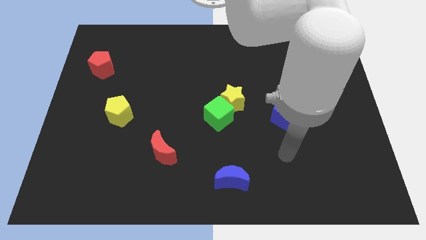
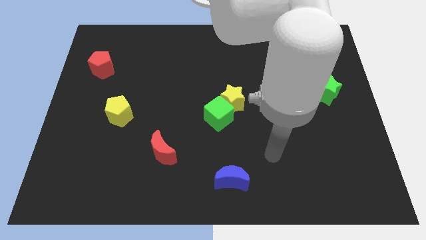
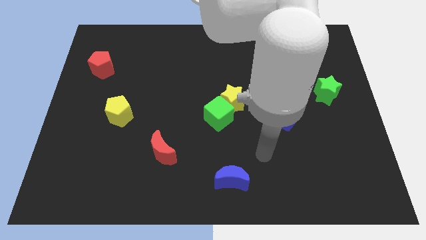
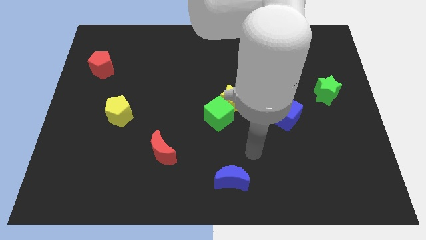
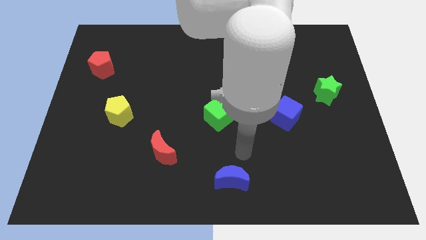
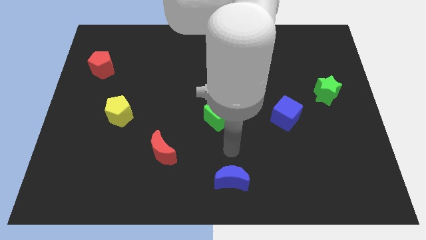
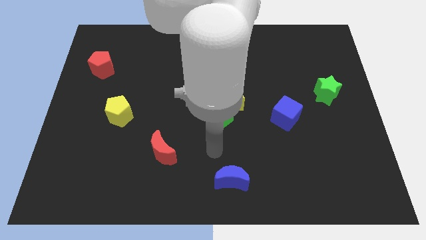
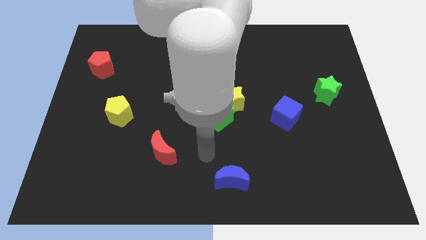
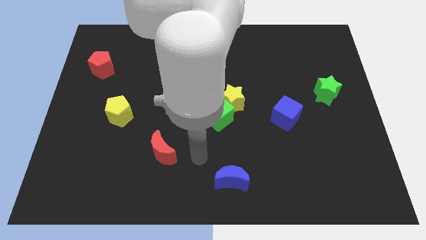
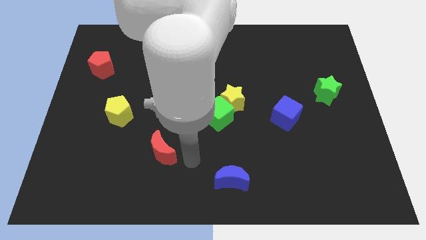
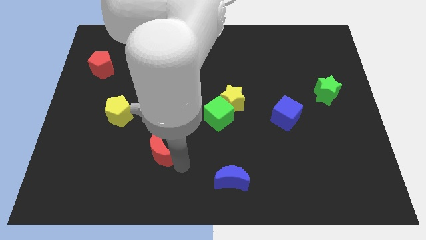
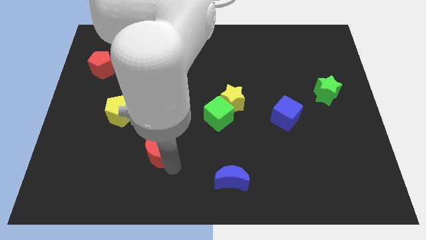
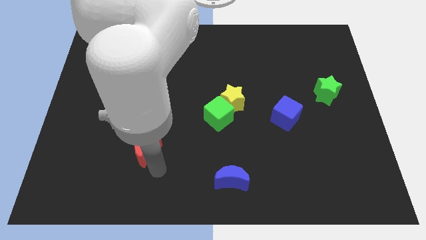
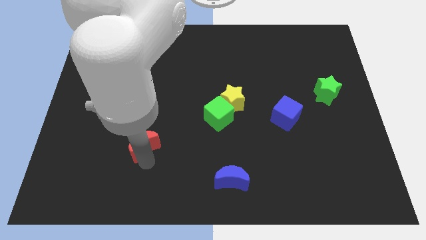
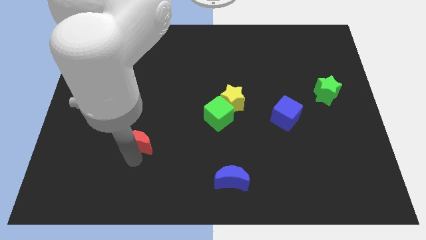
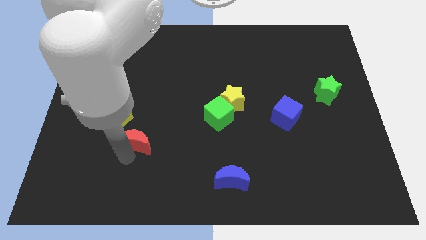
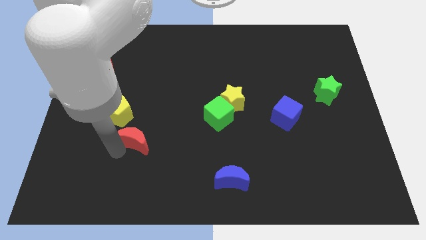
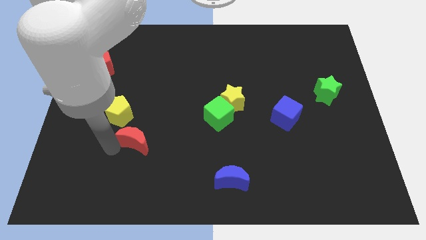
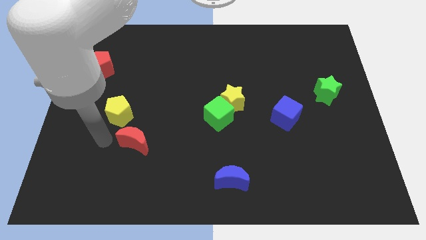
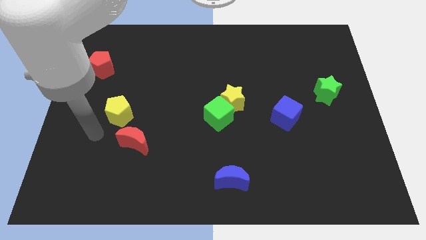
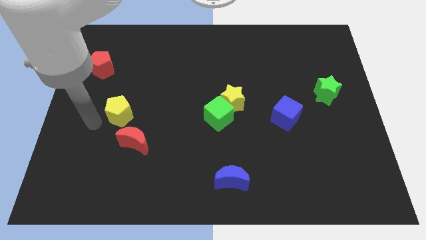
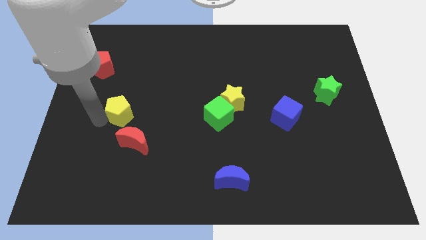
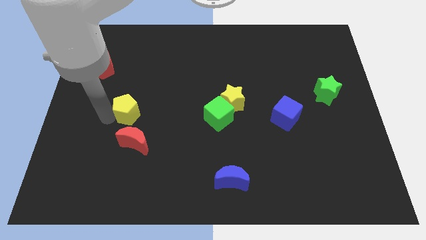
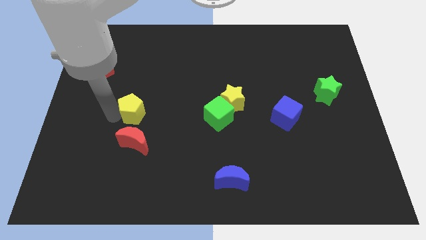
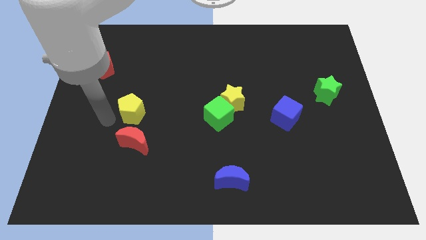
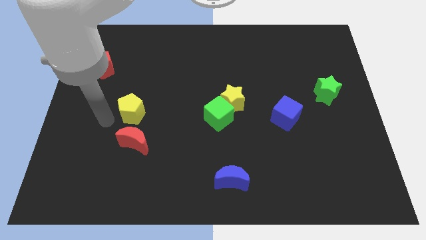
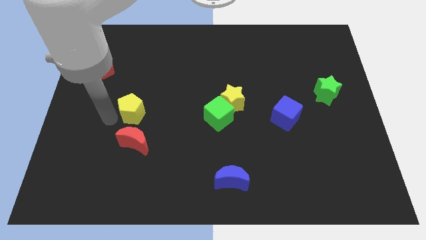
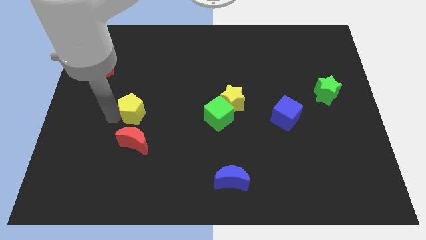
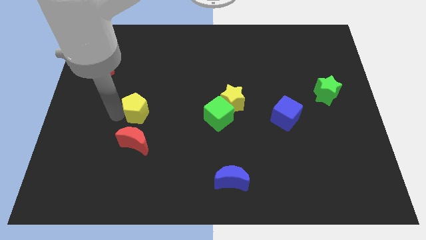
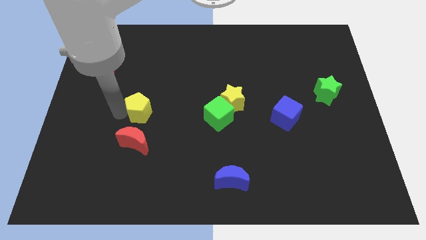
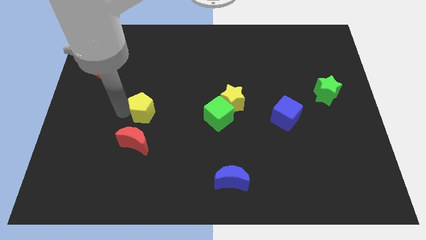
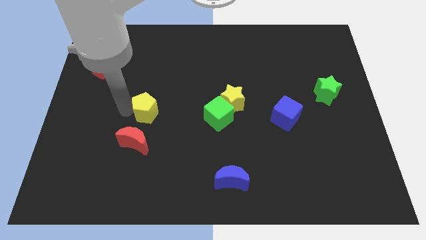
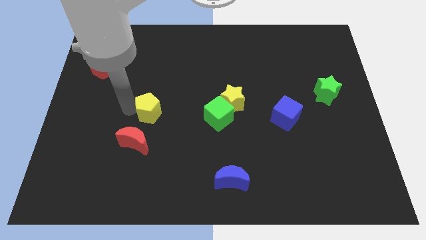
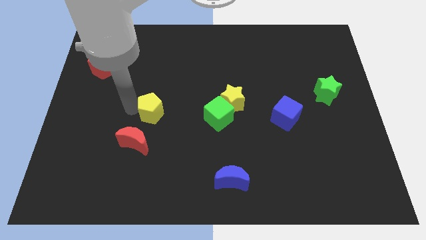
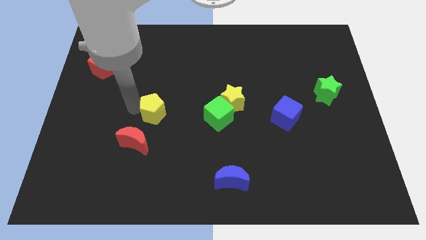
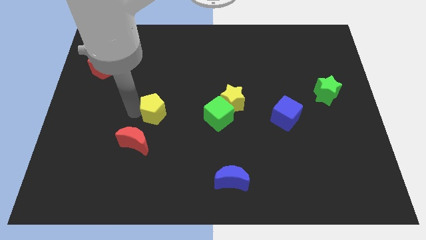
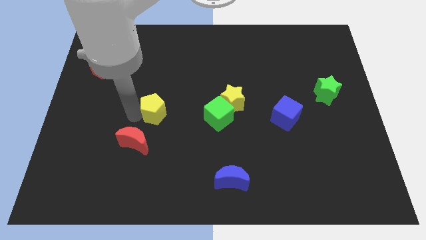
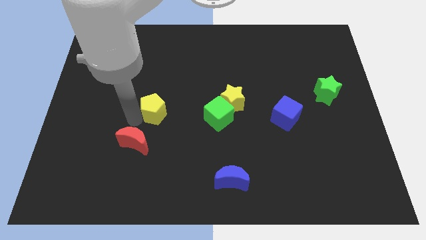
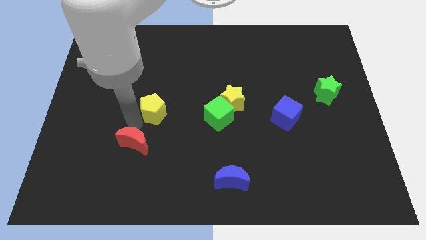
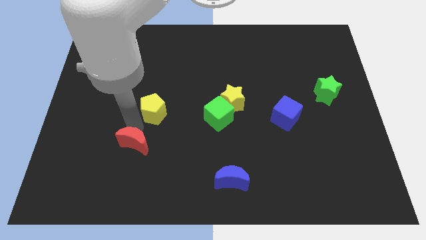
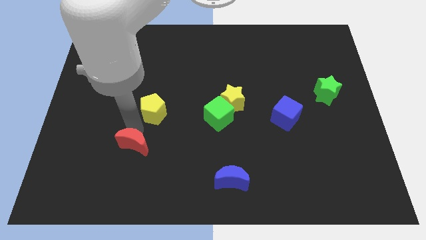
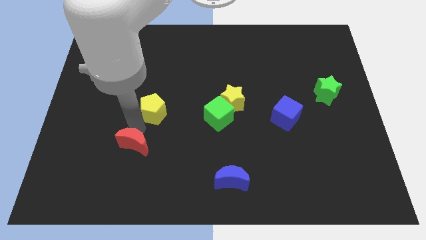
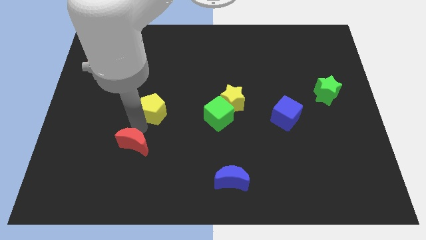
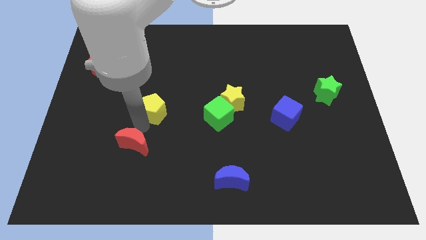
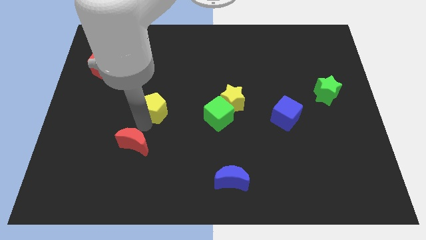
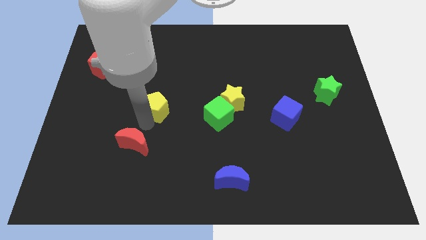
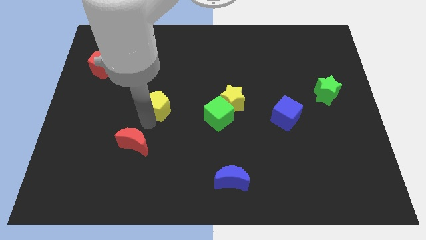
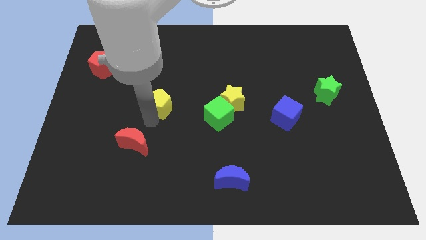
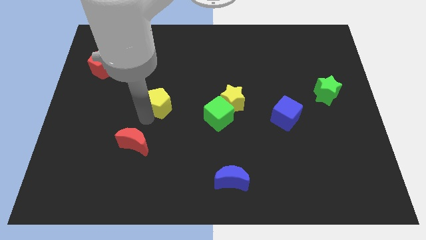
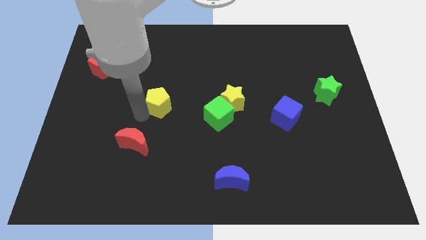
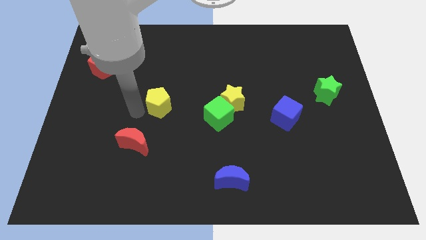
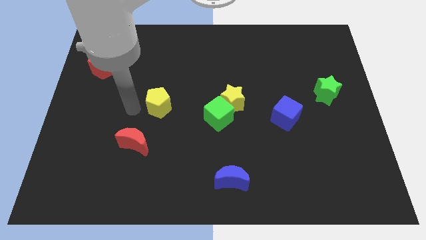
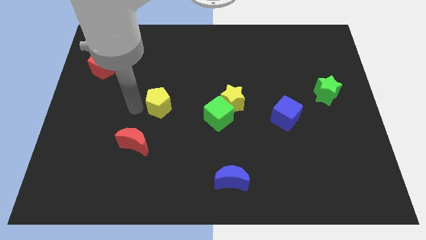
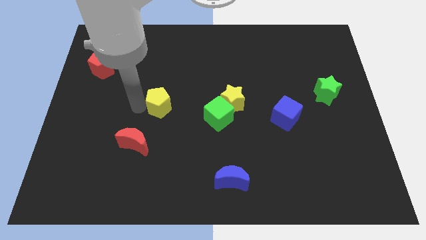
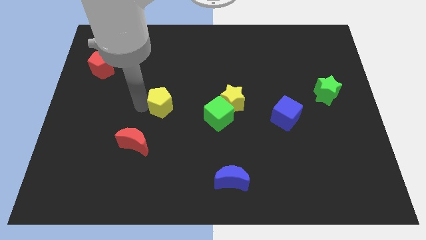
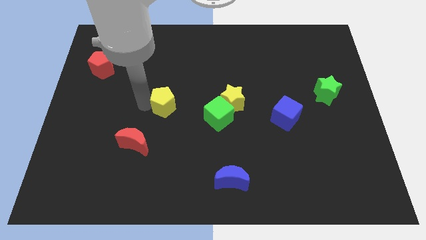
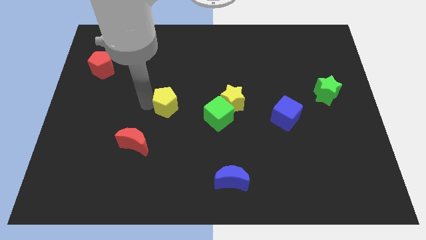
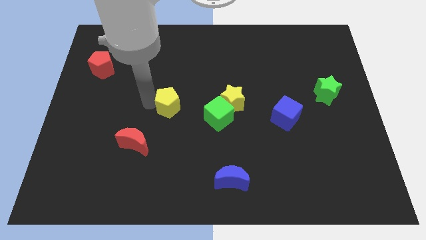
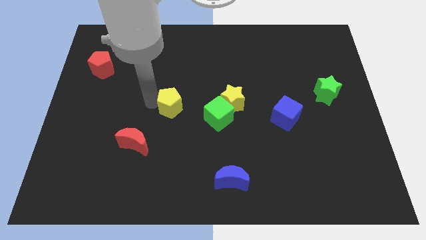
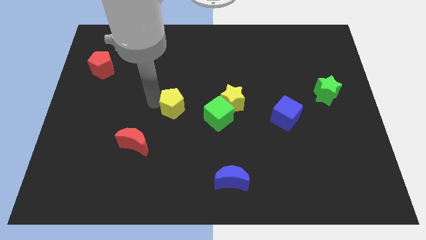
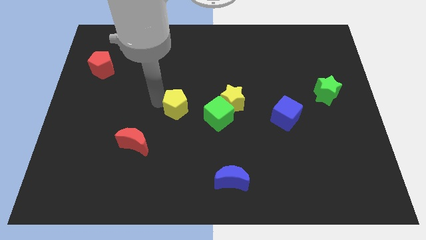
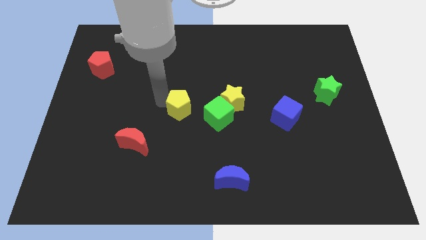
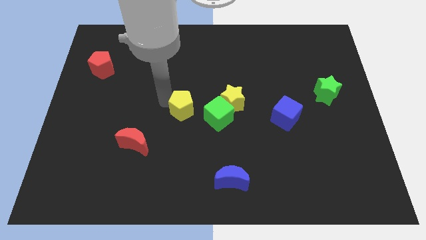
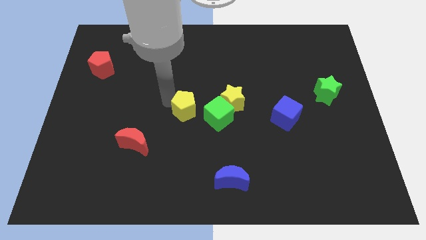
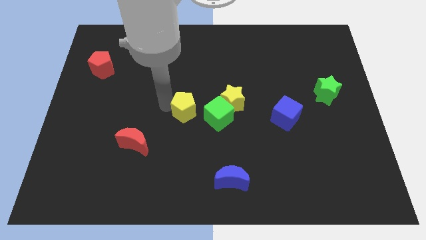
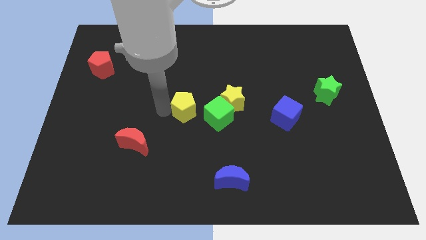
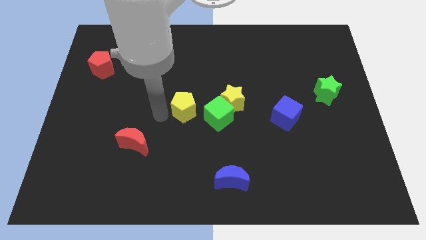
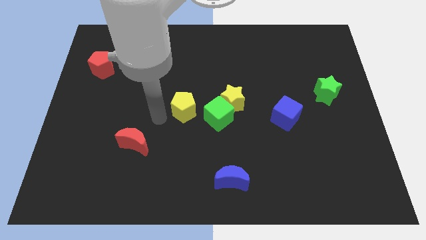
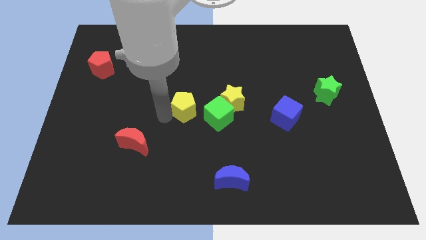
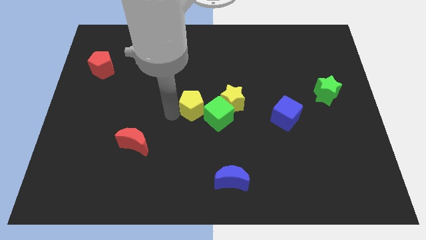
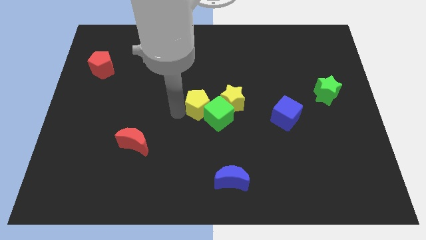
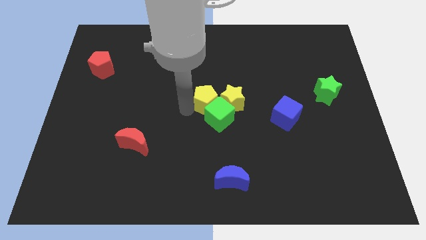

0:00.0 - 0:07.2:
put the yellow pentagon to the yellow star

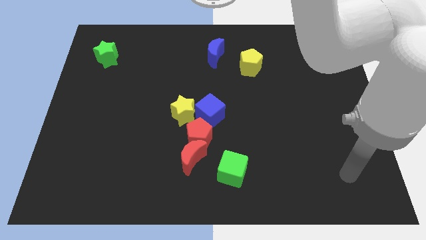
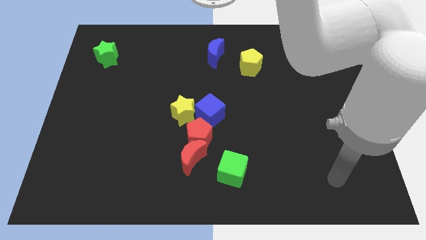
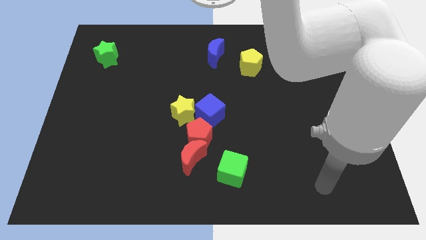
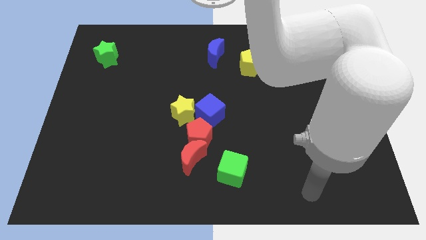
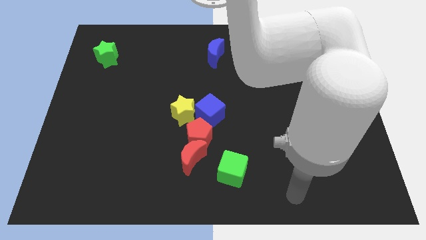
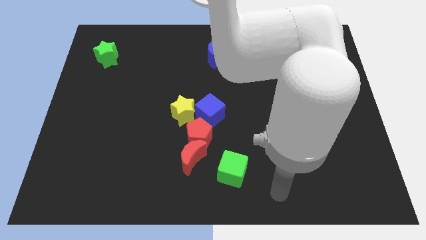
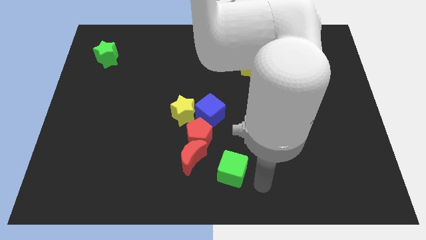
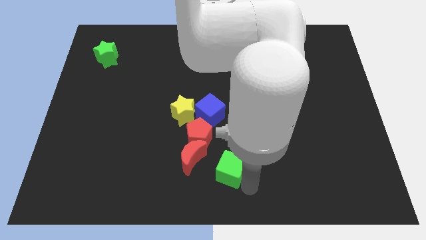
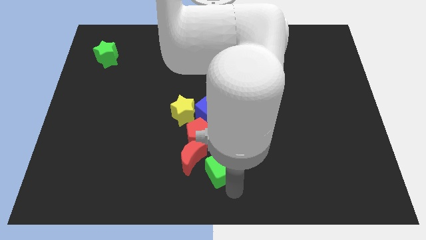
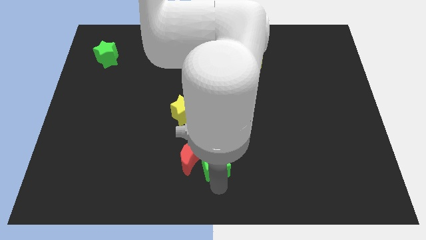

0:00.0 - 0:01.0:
move the red moon towards the green cube
